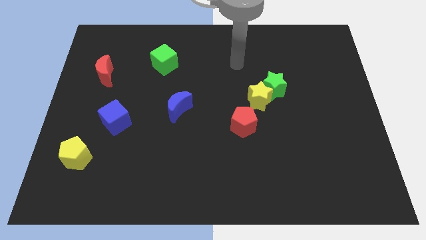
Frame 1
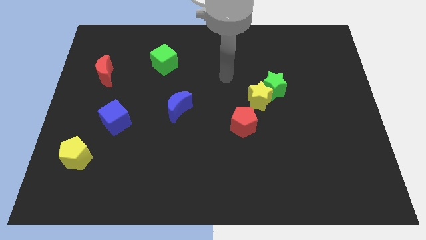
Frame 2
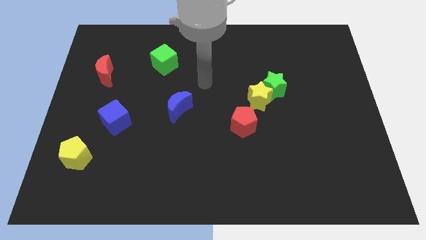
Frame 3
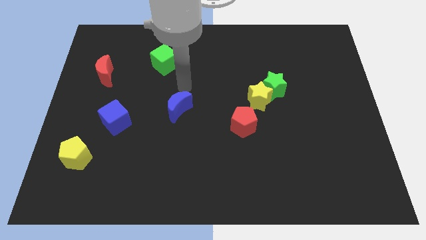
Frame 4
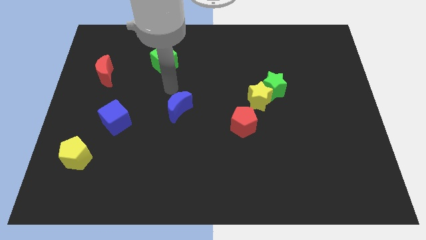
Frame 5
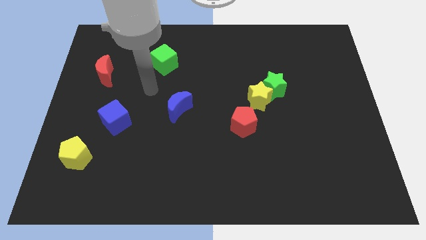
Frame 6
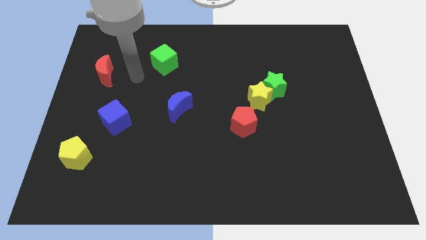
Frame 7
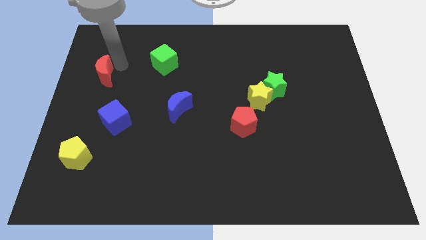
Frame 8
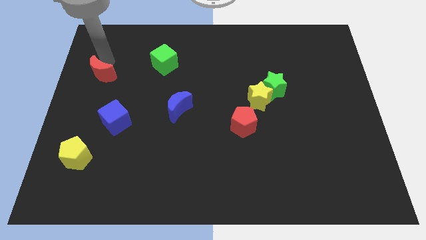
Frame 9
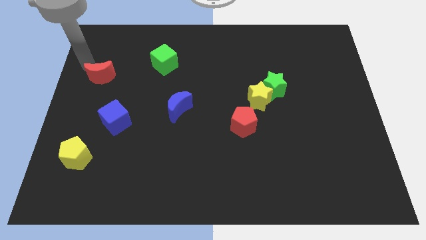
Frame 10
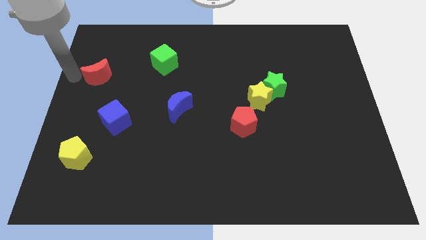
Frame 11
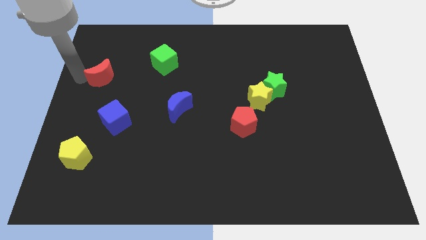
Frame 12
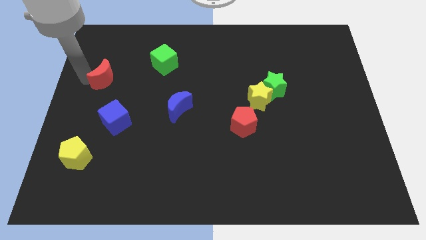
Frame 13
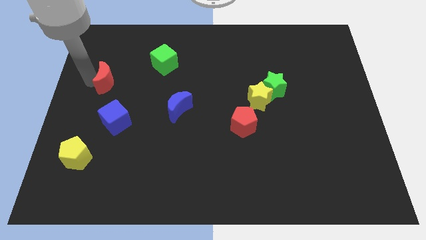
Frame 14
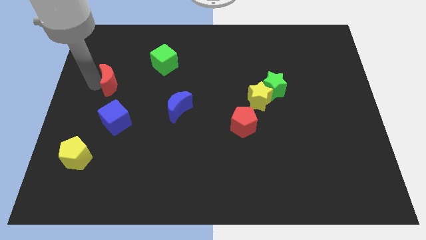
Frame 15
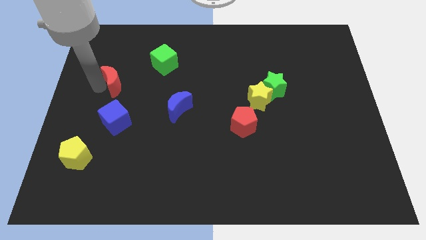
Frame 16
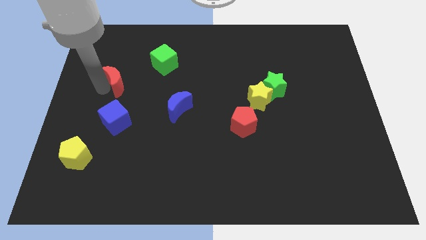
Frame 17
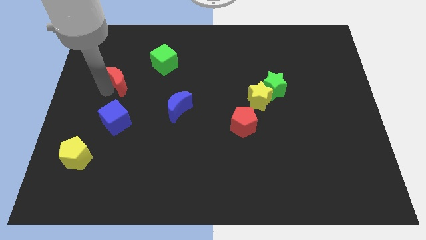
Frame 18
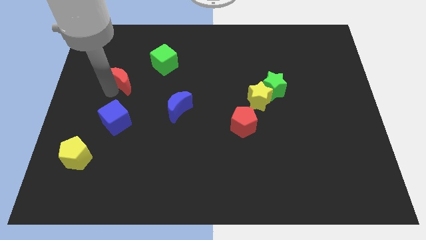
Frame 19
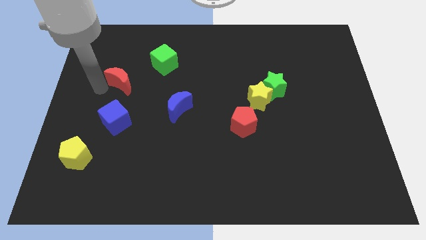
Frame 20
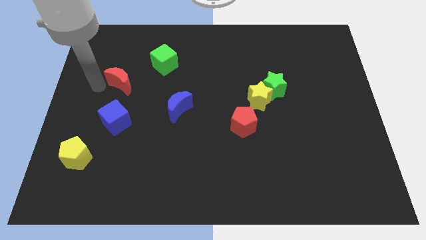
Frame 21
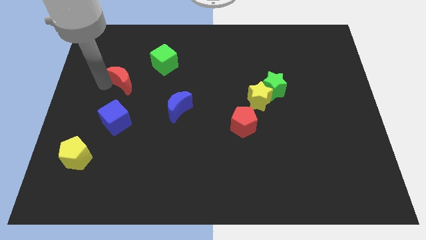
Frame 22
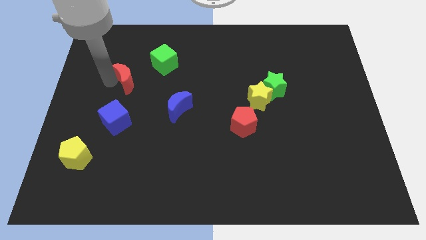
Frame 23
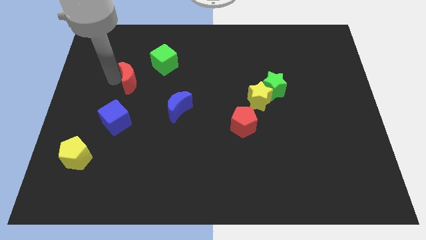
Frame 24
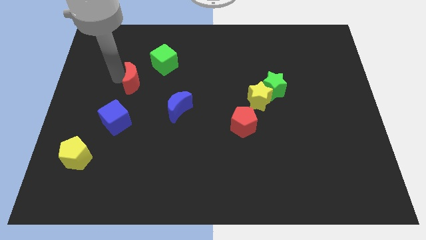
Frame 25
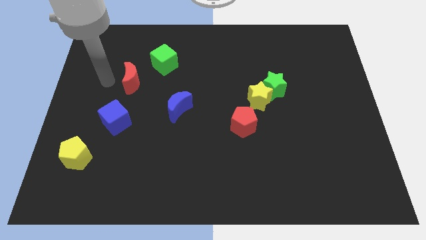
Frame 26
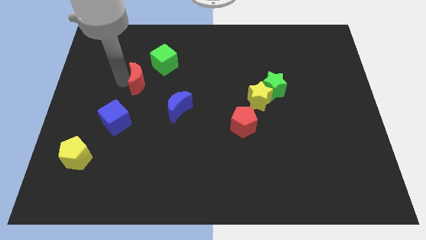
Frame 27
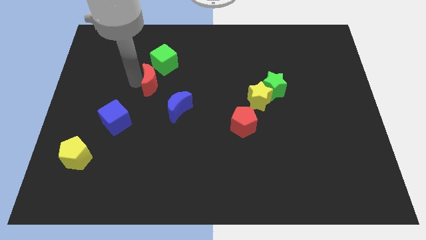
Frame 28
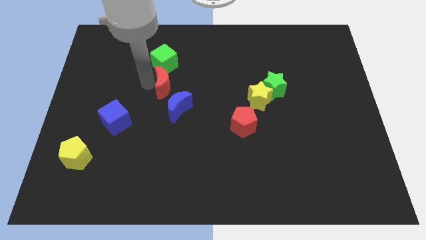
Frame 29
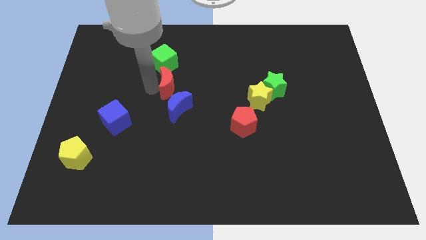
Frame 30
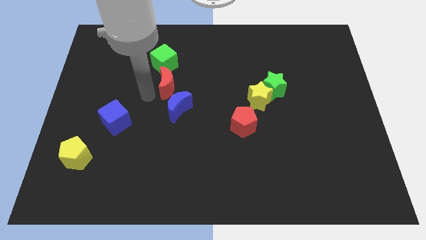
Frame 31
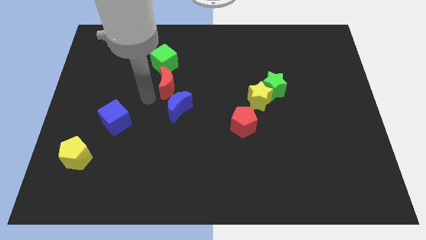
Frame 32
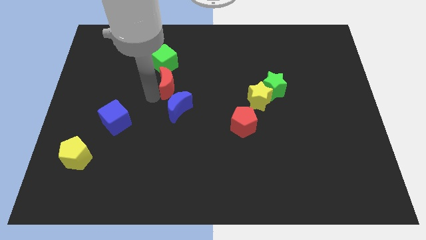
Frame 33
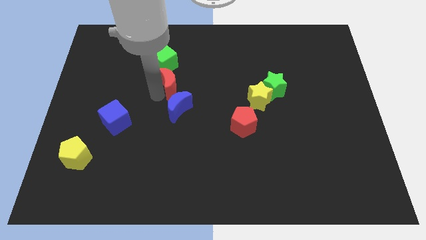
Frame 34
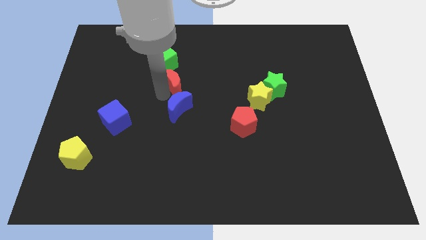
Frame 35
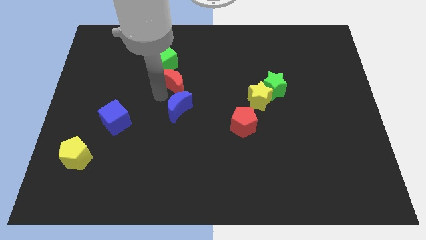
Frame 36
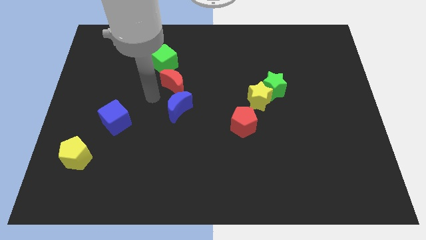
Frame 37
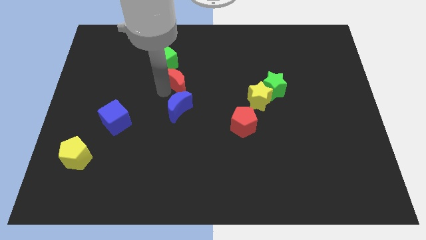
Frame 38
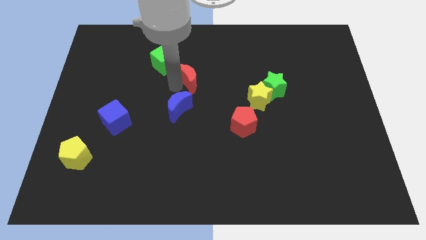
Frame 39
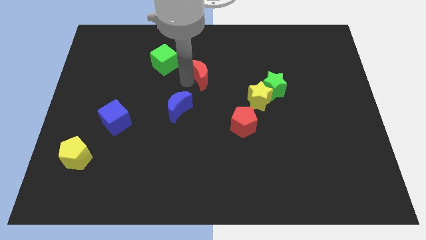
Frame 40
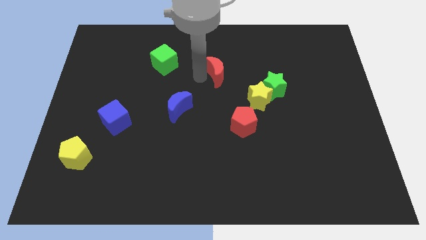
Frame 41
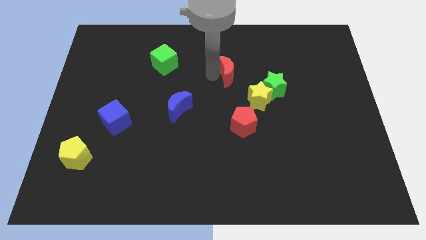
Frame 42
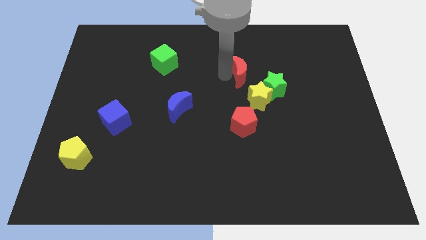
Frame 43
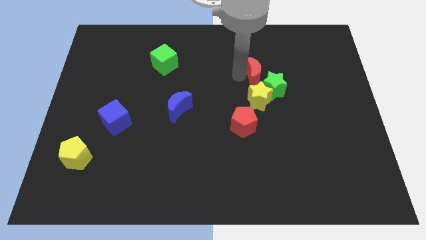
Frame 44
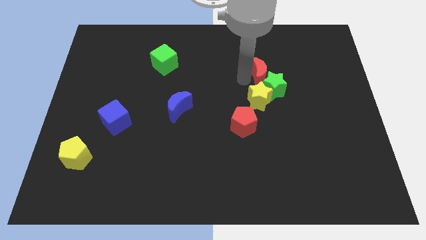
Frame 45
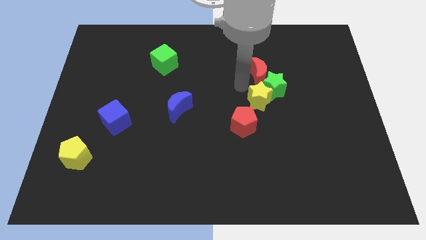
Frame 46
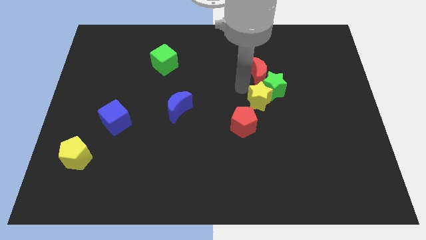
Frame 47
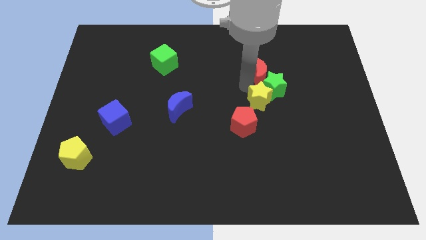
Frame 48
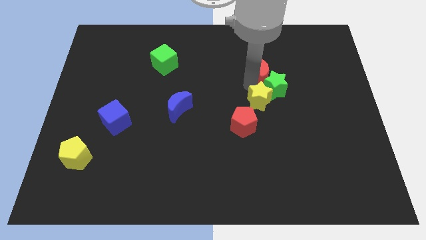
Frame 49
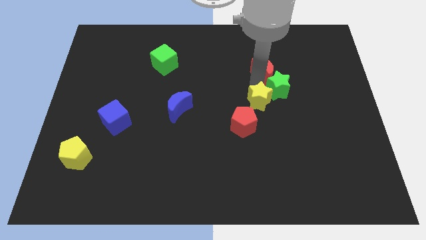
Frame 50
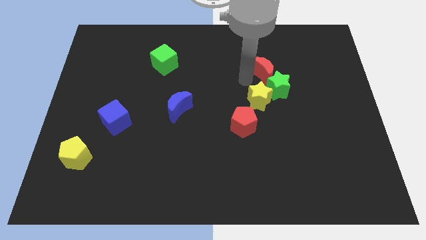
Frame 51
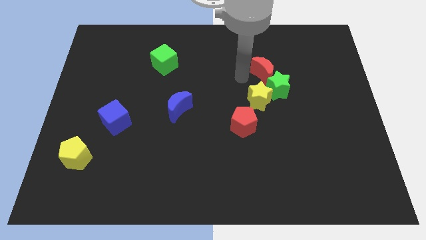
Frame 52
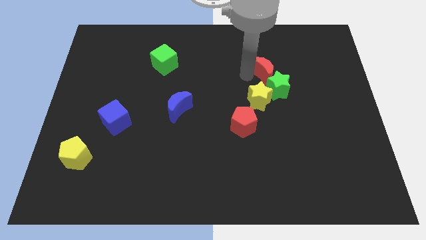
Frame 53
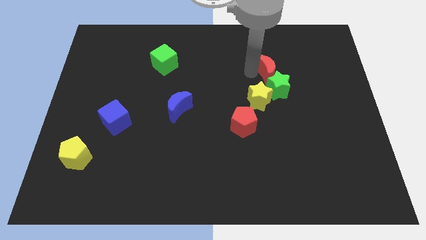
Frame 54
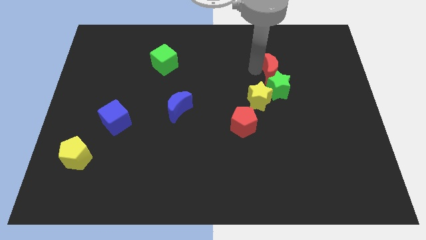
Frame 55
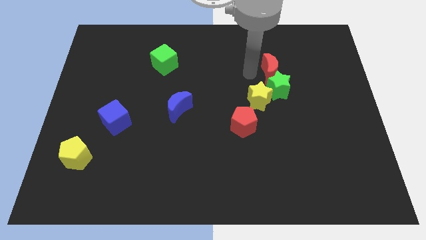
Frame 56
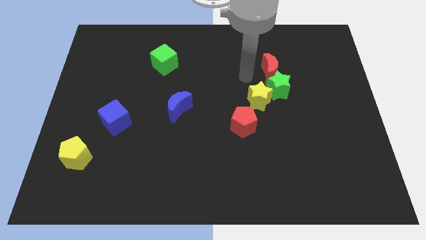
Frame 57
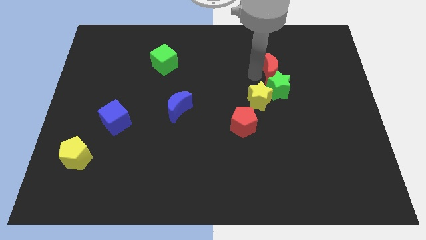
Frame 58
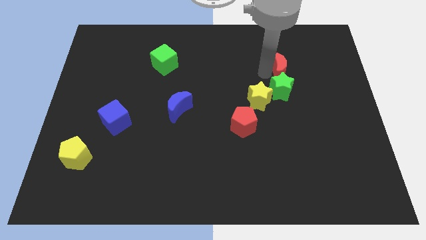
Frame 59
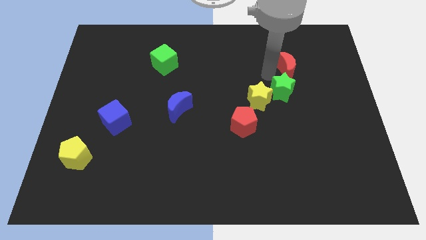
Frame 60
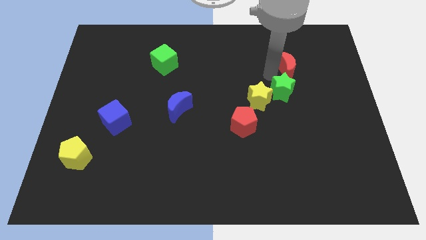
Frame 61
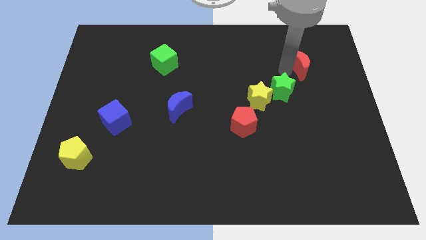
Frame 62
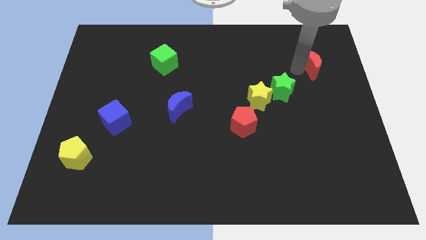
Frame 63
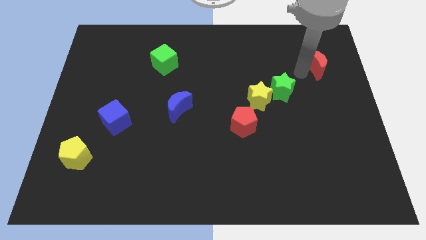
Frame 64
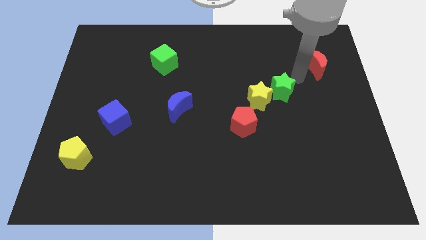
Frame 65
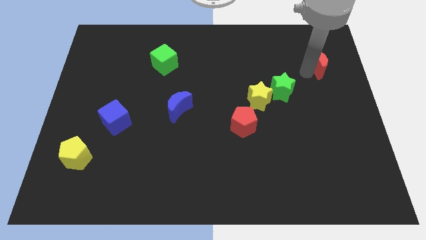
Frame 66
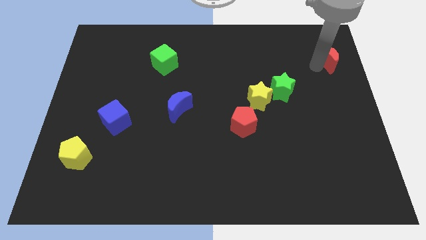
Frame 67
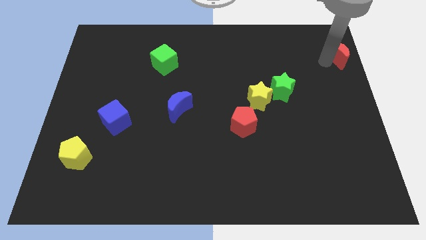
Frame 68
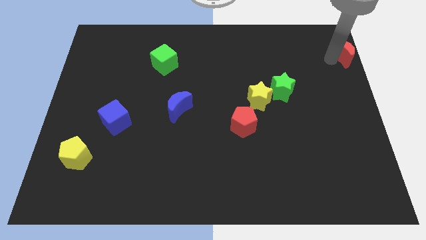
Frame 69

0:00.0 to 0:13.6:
slide the red moon to the top right corner
